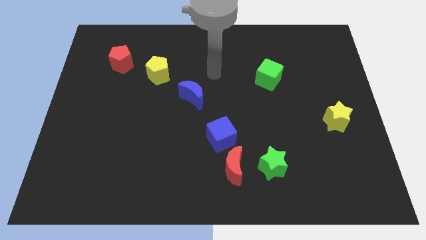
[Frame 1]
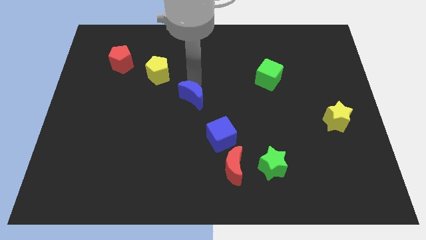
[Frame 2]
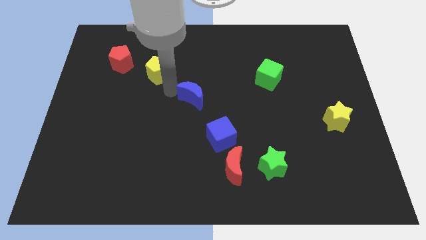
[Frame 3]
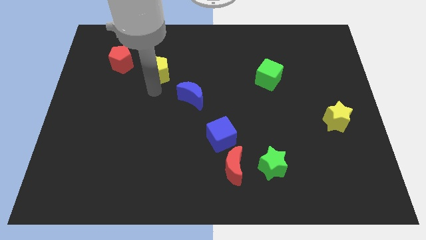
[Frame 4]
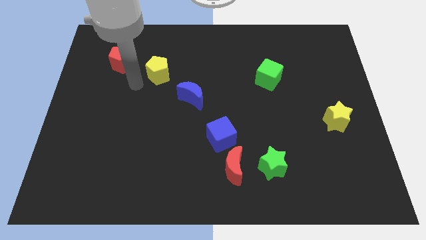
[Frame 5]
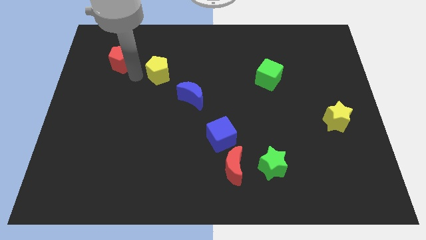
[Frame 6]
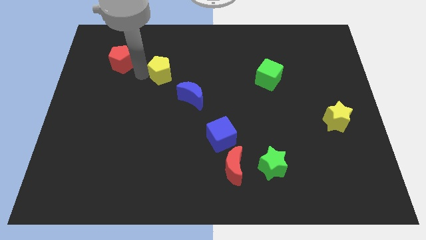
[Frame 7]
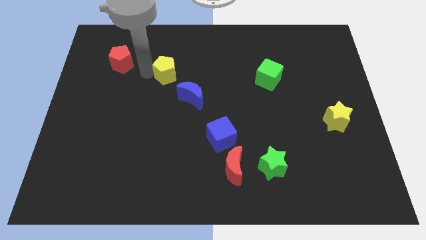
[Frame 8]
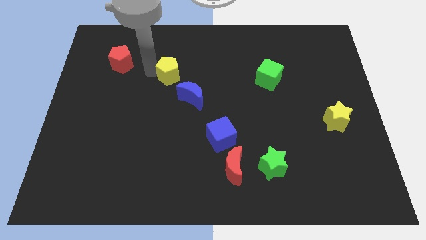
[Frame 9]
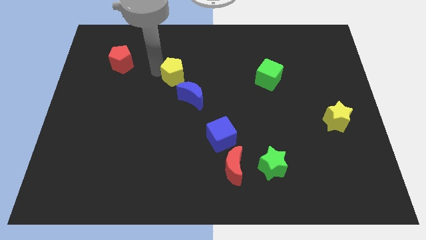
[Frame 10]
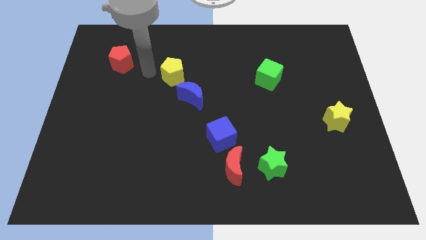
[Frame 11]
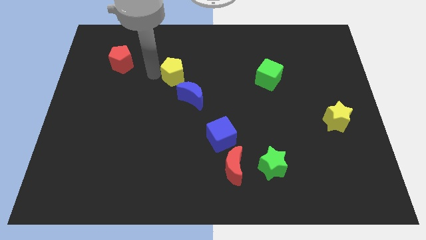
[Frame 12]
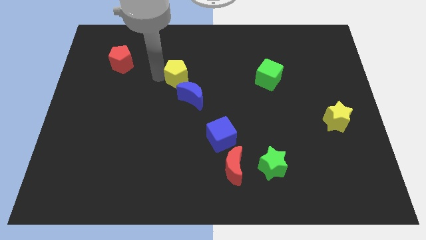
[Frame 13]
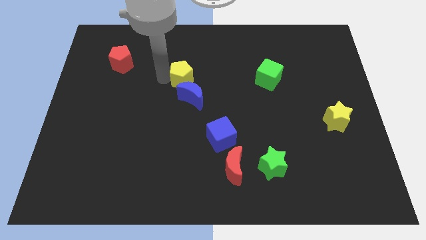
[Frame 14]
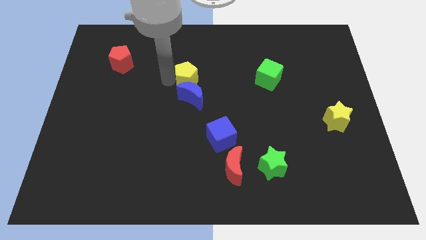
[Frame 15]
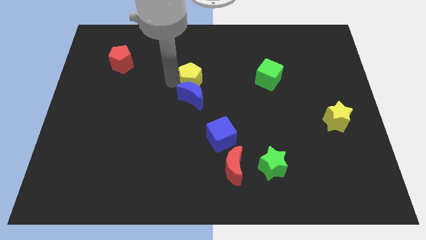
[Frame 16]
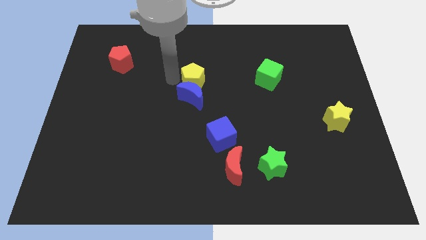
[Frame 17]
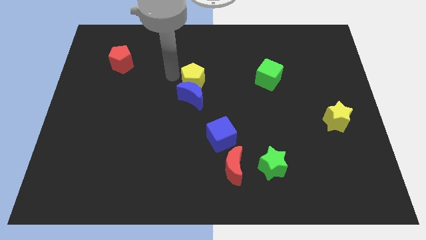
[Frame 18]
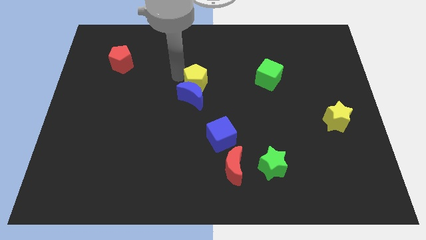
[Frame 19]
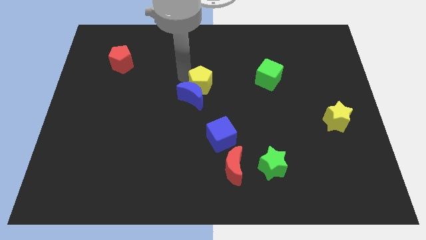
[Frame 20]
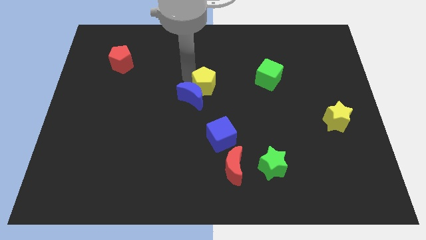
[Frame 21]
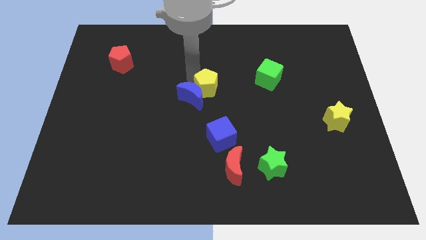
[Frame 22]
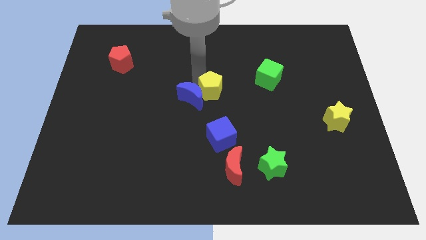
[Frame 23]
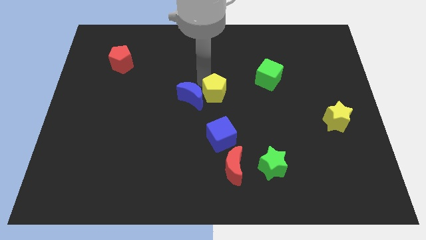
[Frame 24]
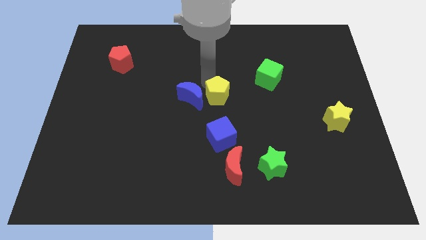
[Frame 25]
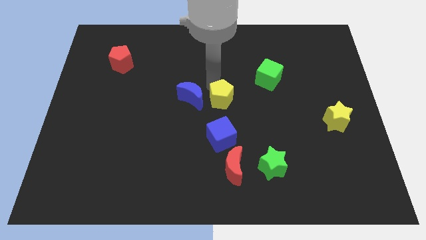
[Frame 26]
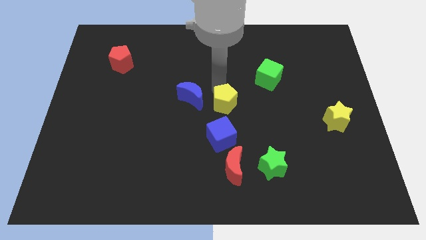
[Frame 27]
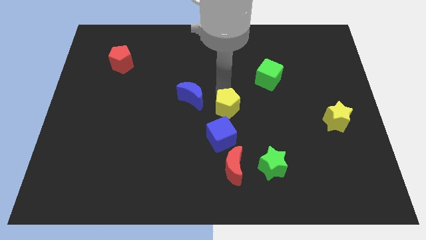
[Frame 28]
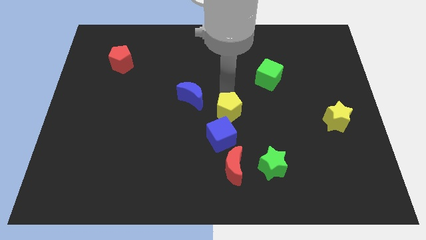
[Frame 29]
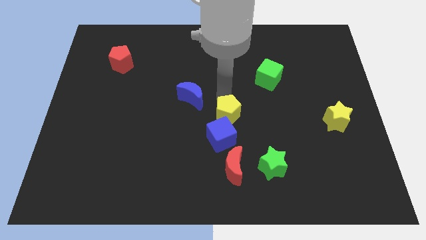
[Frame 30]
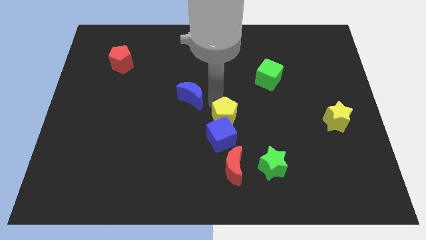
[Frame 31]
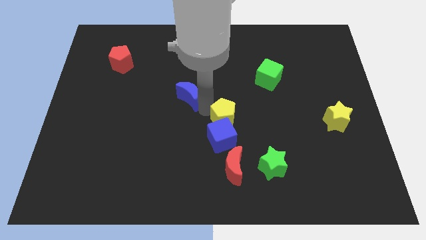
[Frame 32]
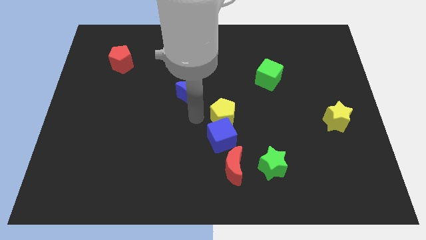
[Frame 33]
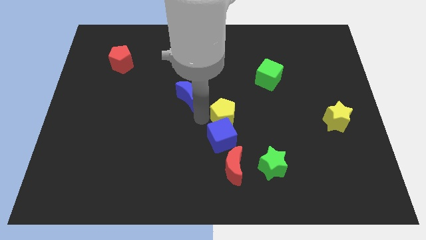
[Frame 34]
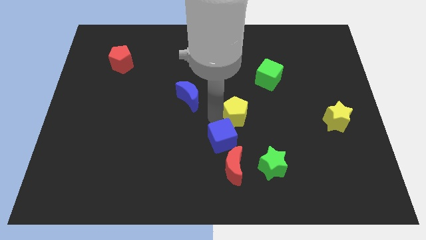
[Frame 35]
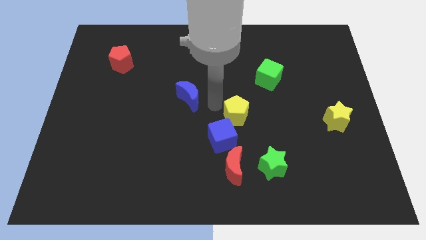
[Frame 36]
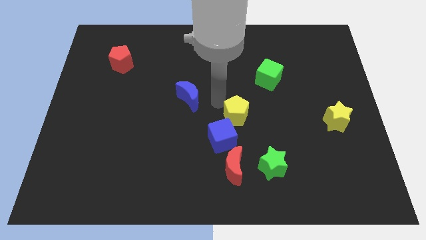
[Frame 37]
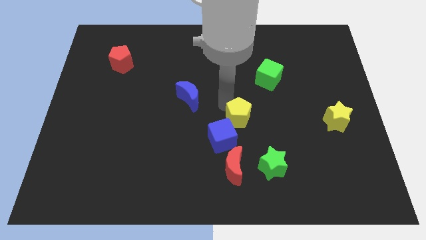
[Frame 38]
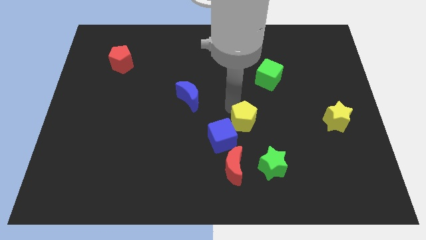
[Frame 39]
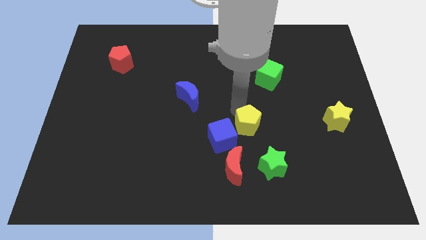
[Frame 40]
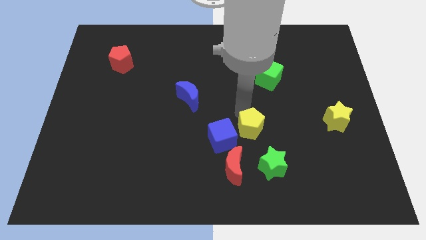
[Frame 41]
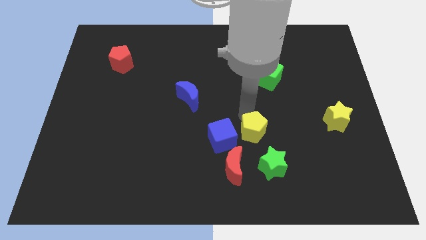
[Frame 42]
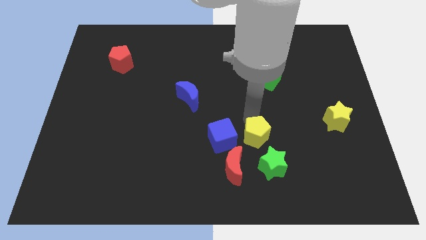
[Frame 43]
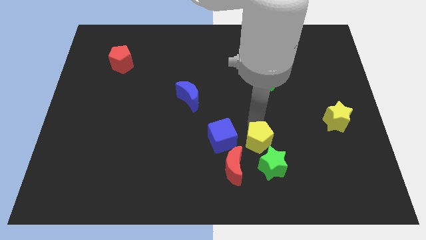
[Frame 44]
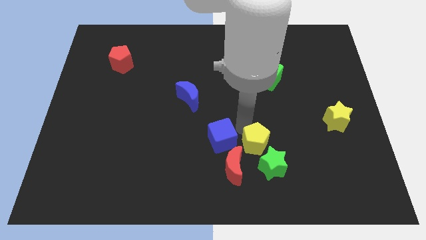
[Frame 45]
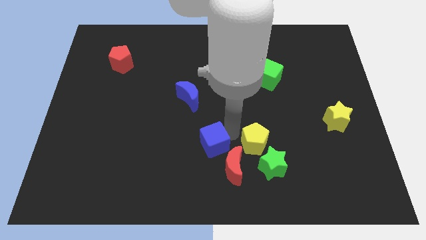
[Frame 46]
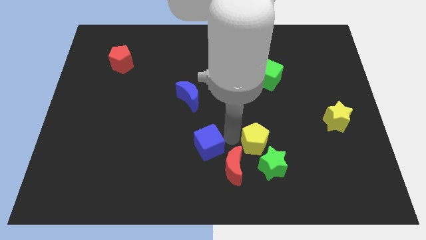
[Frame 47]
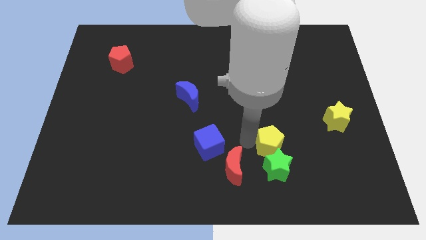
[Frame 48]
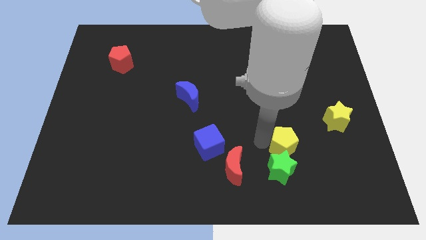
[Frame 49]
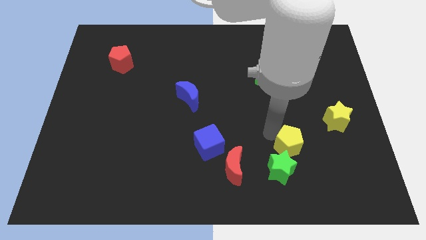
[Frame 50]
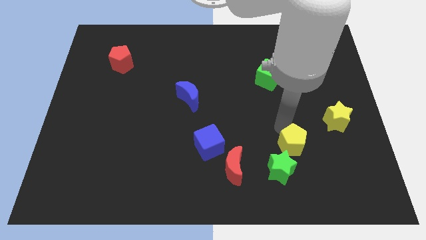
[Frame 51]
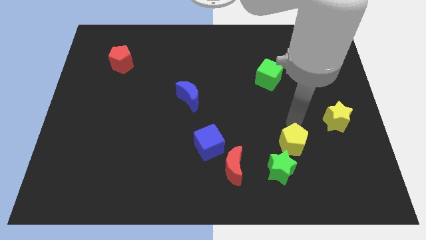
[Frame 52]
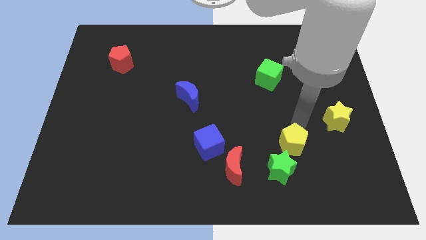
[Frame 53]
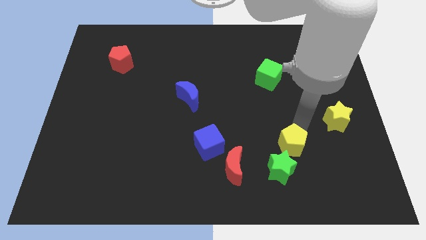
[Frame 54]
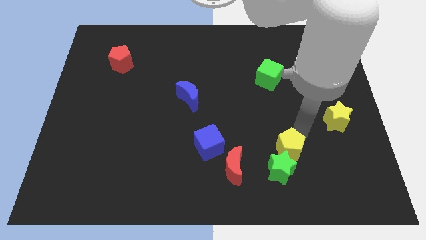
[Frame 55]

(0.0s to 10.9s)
push the yellow pentagon to the right of the red moon

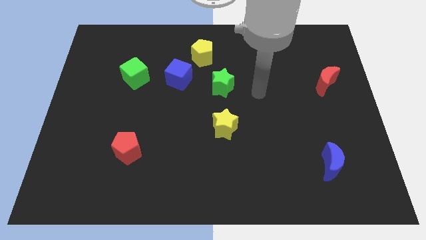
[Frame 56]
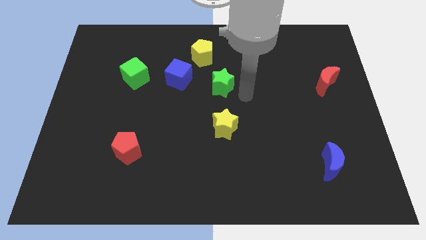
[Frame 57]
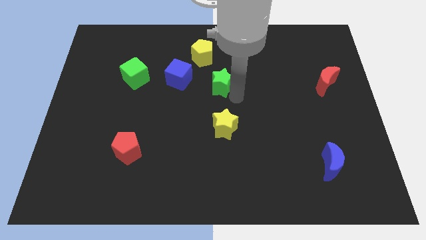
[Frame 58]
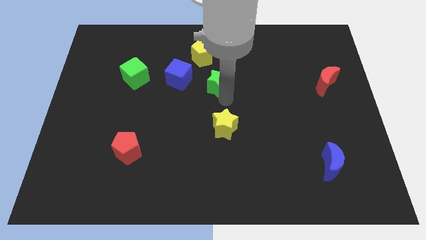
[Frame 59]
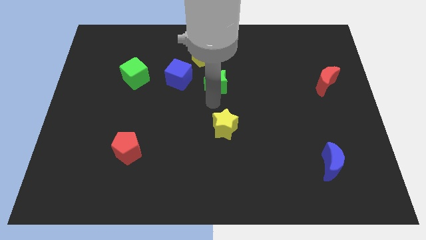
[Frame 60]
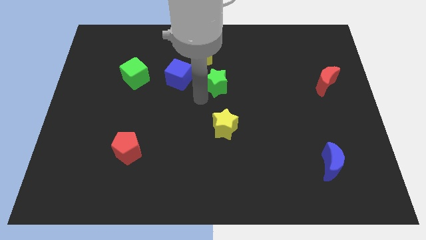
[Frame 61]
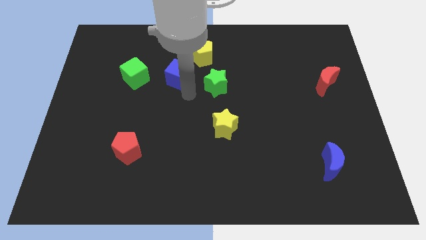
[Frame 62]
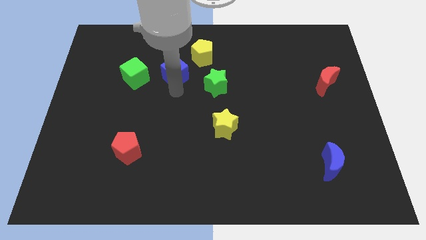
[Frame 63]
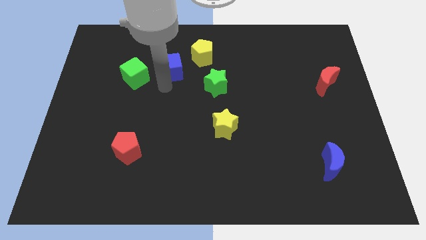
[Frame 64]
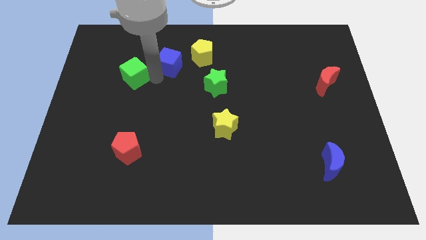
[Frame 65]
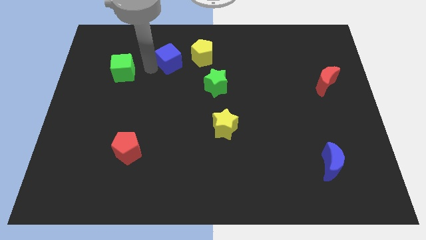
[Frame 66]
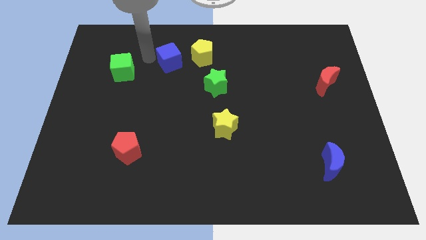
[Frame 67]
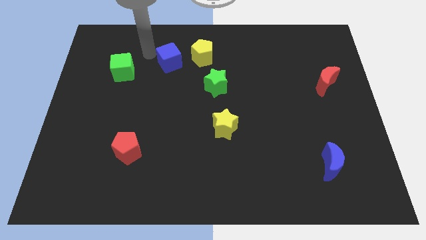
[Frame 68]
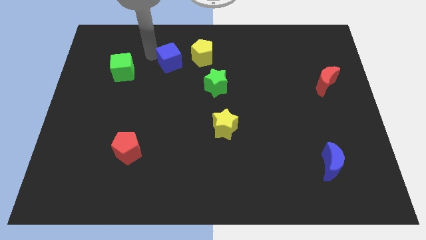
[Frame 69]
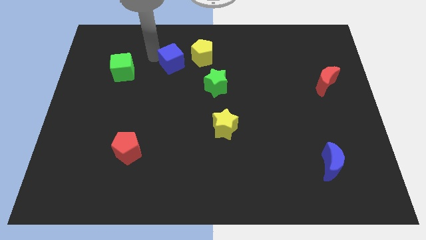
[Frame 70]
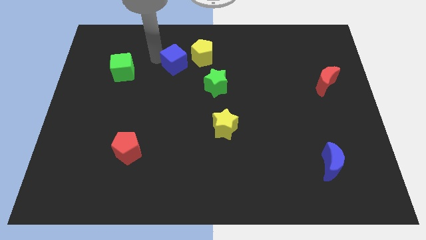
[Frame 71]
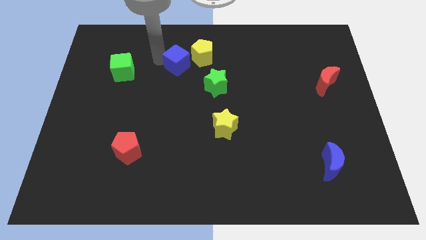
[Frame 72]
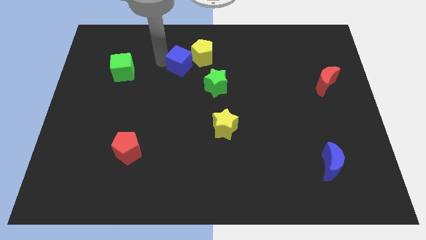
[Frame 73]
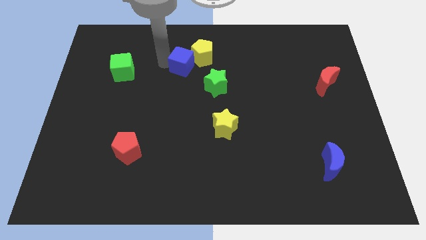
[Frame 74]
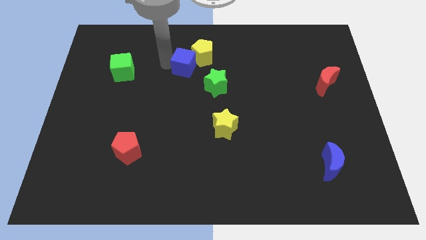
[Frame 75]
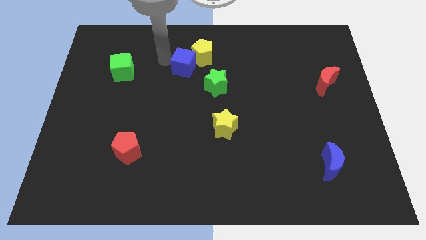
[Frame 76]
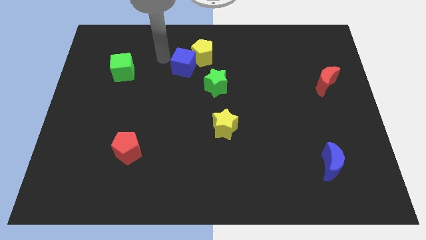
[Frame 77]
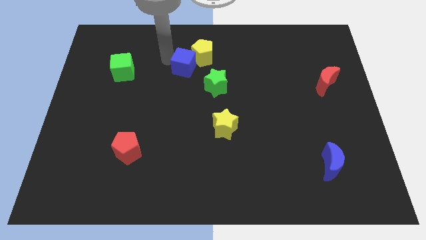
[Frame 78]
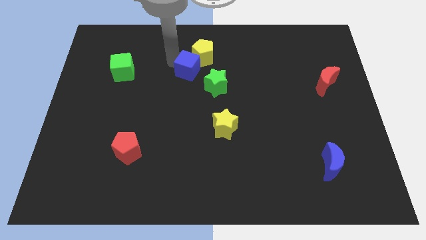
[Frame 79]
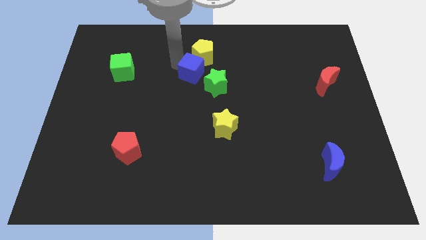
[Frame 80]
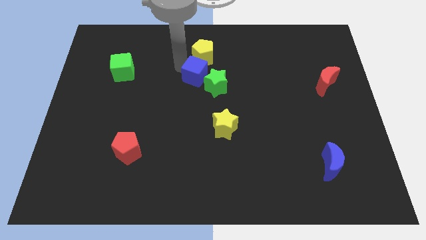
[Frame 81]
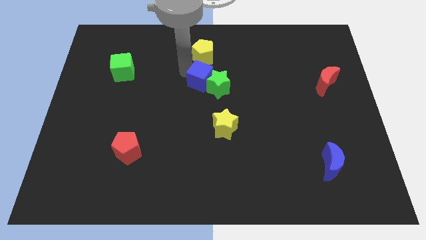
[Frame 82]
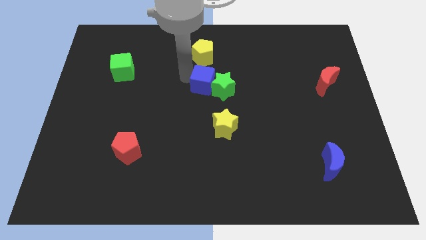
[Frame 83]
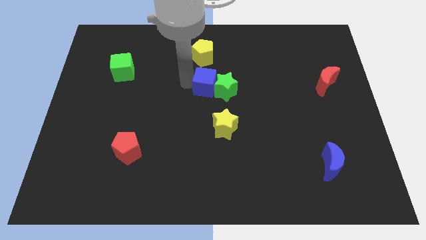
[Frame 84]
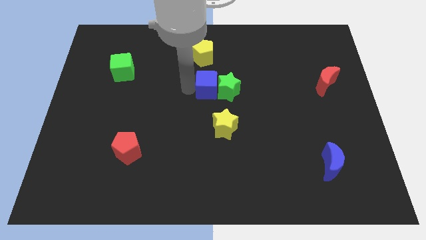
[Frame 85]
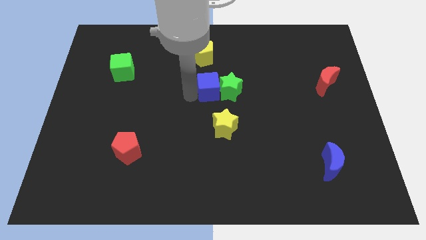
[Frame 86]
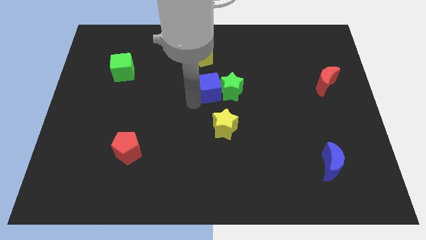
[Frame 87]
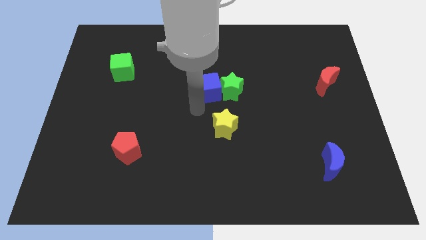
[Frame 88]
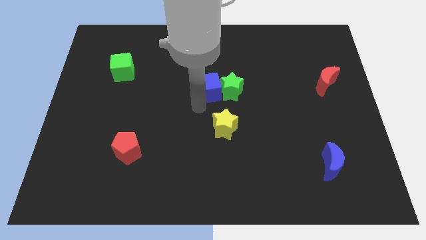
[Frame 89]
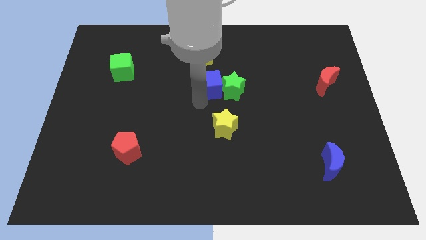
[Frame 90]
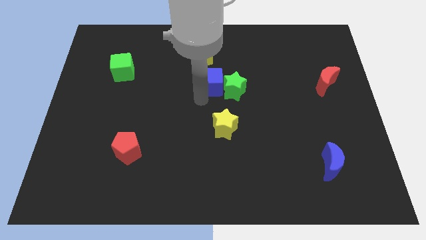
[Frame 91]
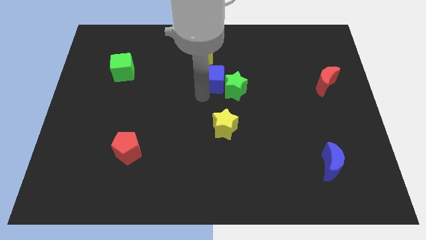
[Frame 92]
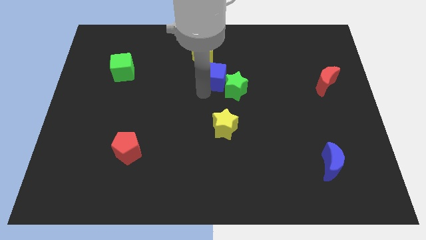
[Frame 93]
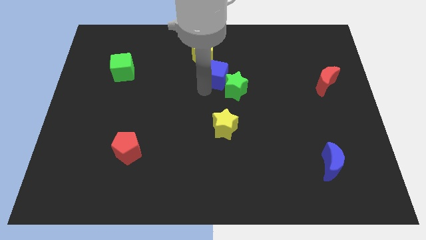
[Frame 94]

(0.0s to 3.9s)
push the blue cube to the top side of the green star
